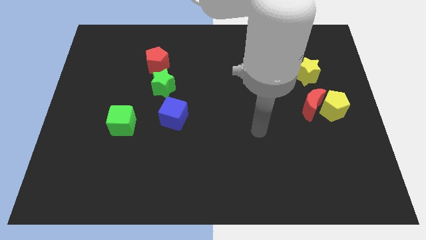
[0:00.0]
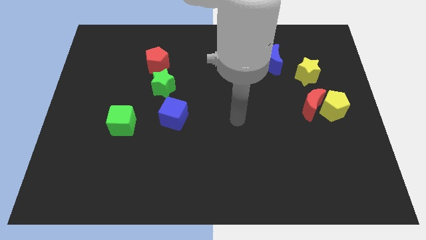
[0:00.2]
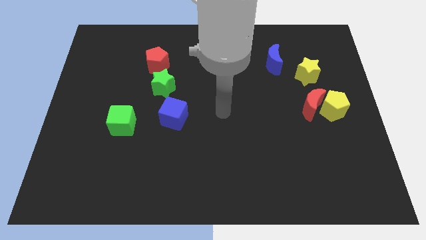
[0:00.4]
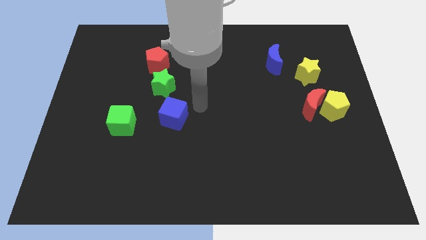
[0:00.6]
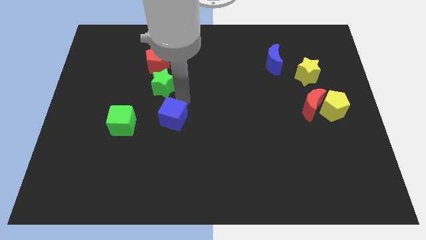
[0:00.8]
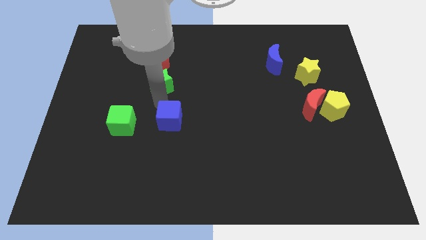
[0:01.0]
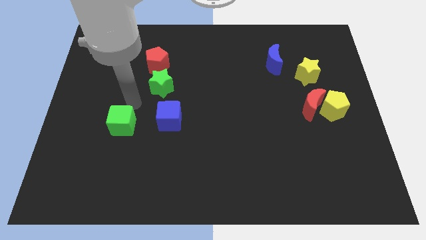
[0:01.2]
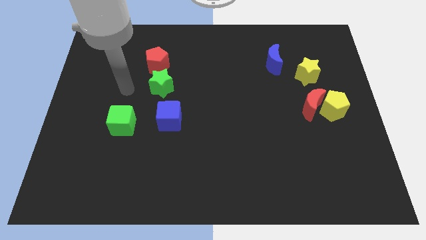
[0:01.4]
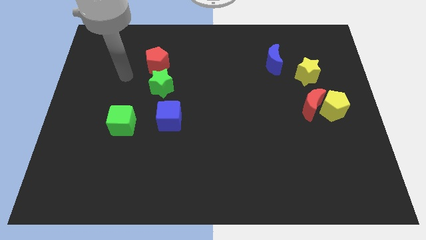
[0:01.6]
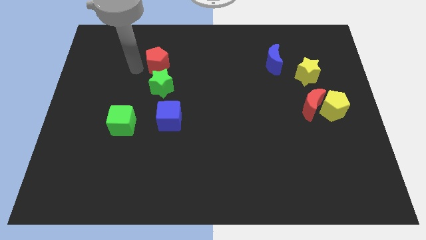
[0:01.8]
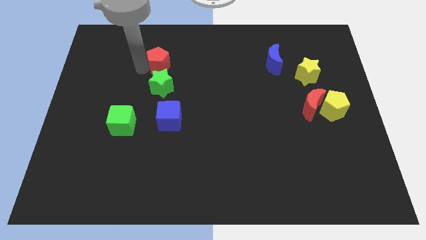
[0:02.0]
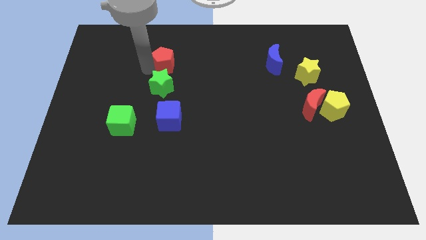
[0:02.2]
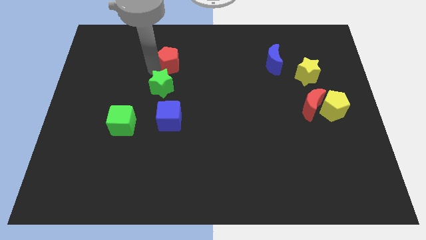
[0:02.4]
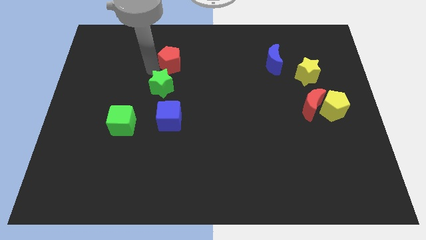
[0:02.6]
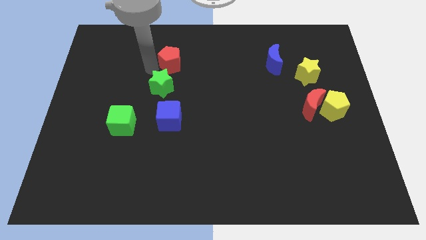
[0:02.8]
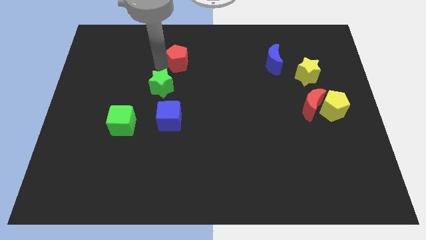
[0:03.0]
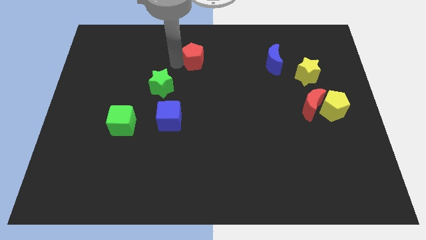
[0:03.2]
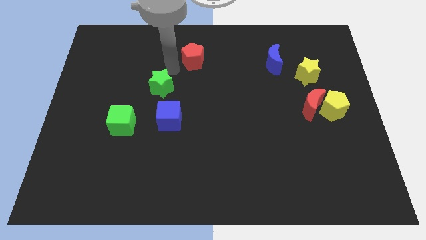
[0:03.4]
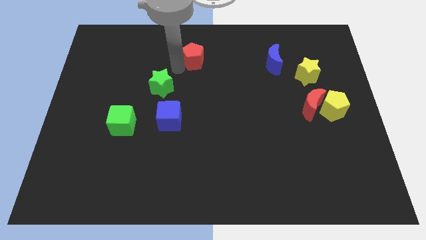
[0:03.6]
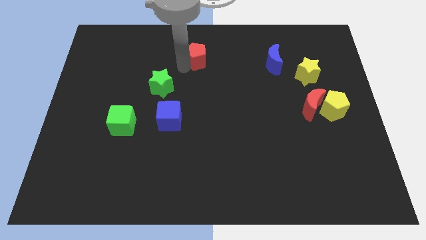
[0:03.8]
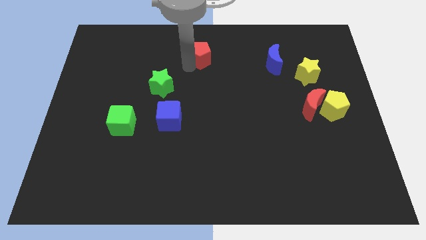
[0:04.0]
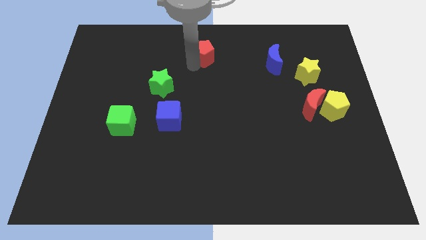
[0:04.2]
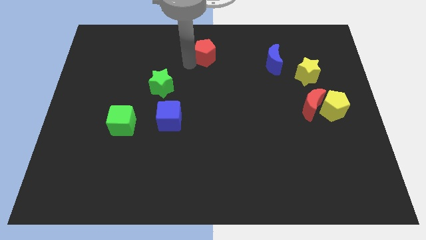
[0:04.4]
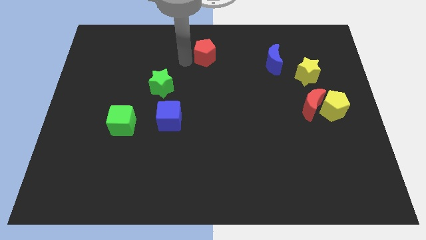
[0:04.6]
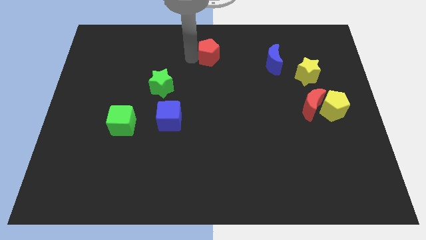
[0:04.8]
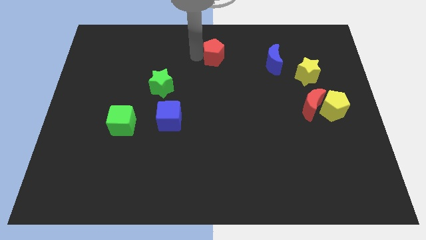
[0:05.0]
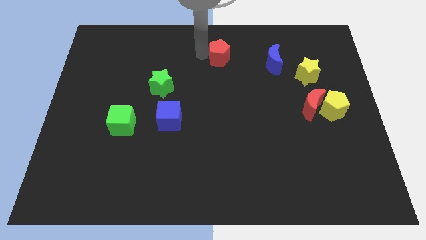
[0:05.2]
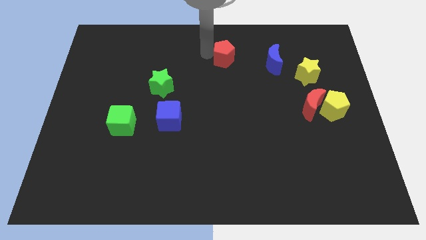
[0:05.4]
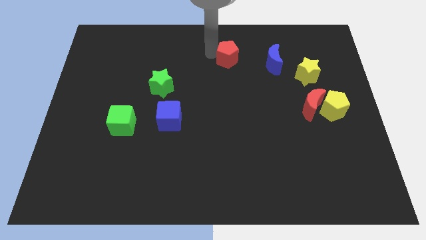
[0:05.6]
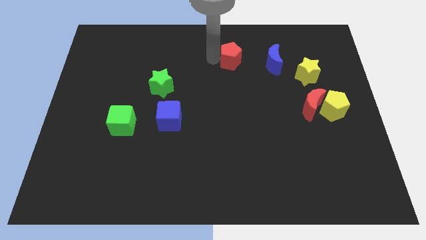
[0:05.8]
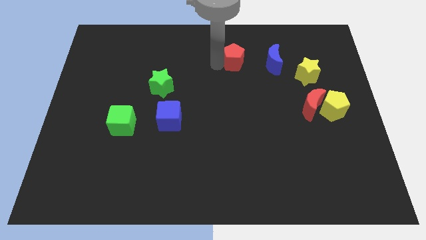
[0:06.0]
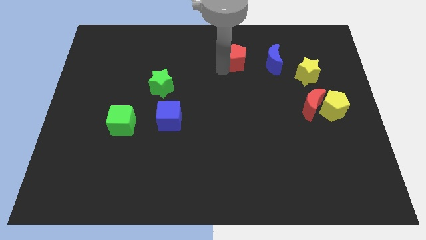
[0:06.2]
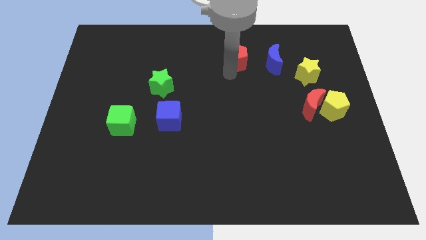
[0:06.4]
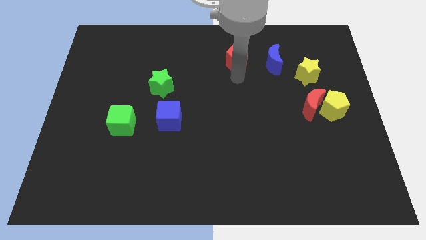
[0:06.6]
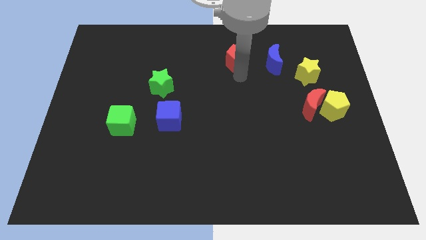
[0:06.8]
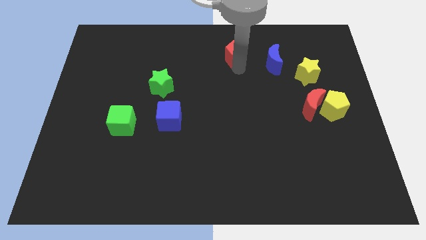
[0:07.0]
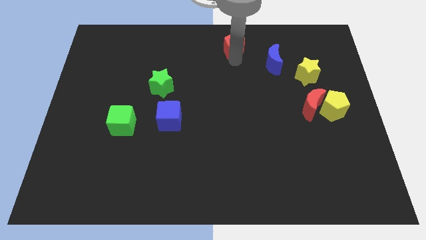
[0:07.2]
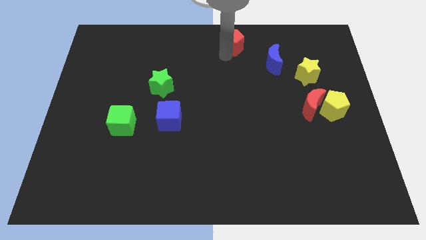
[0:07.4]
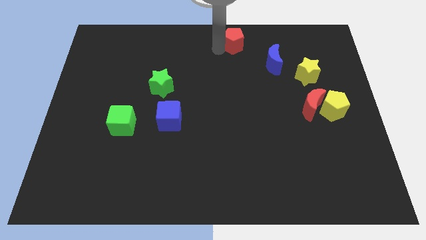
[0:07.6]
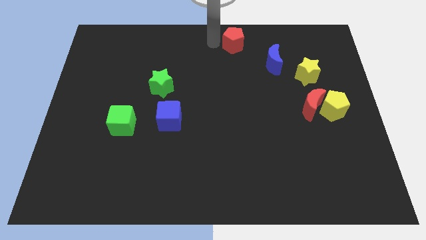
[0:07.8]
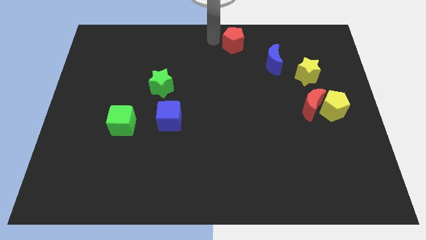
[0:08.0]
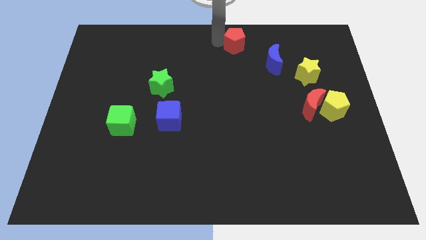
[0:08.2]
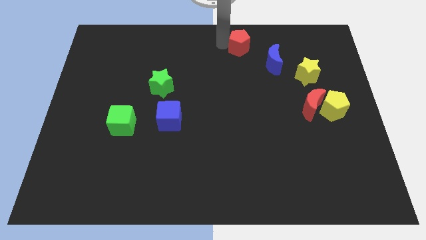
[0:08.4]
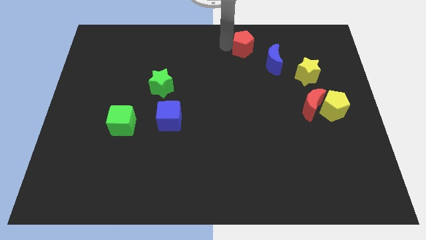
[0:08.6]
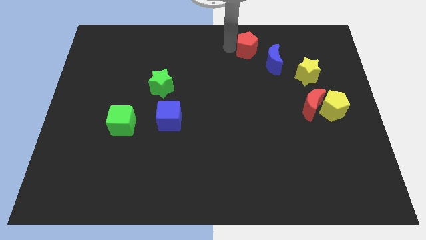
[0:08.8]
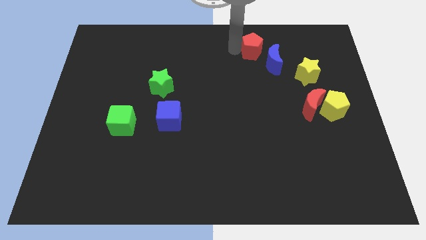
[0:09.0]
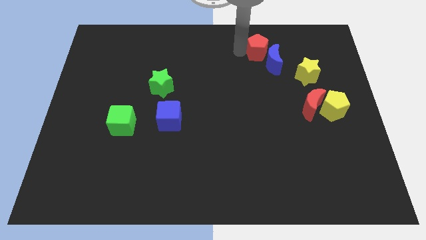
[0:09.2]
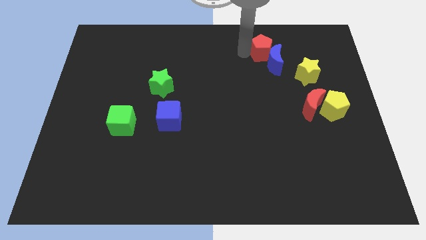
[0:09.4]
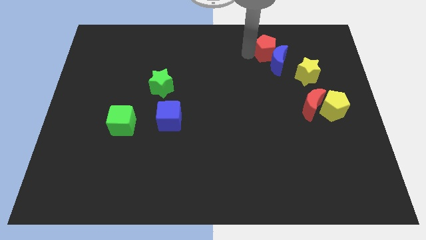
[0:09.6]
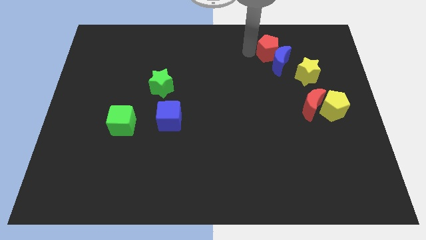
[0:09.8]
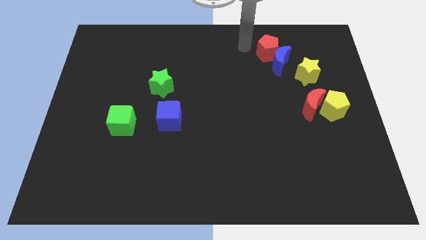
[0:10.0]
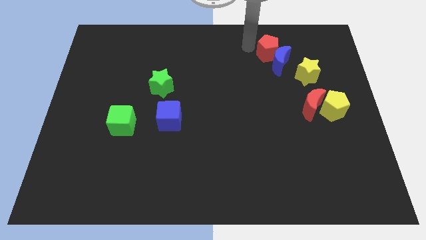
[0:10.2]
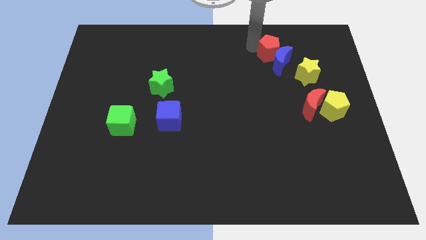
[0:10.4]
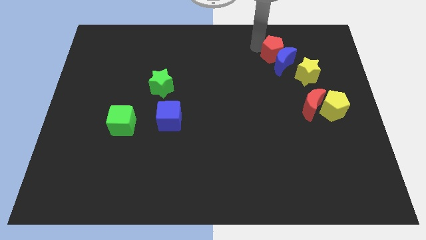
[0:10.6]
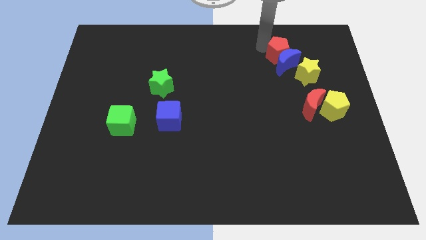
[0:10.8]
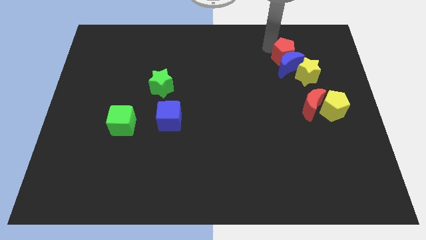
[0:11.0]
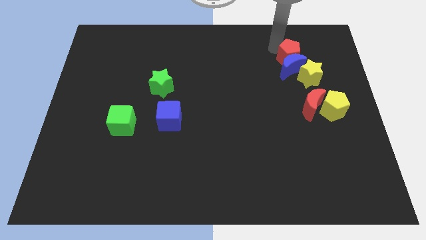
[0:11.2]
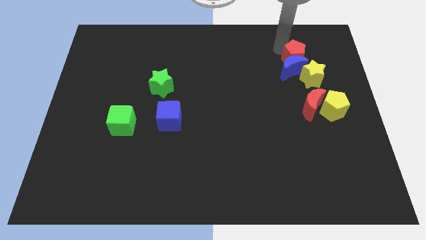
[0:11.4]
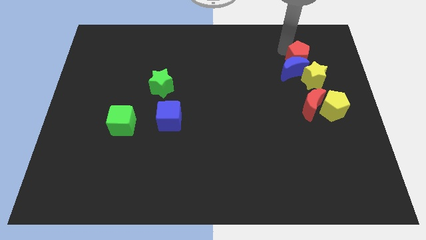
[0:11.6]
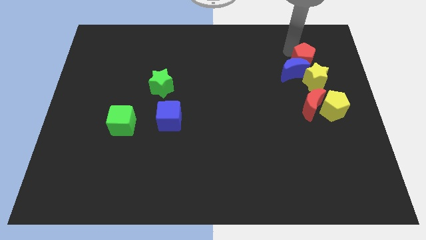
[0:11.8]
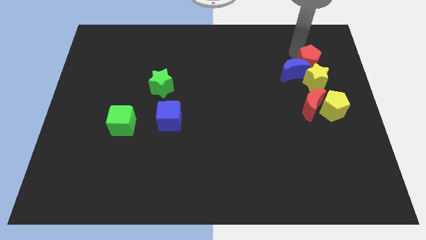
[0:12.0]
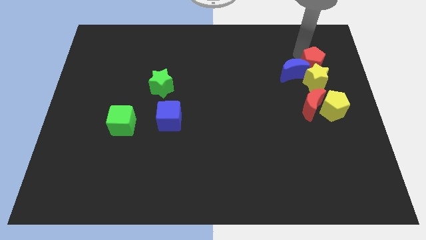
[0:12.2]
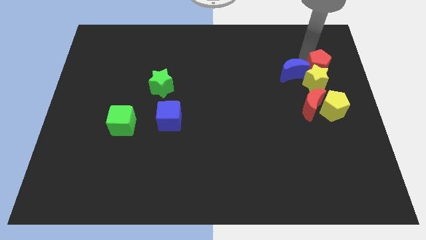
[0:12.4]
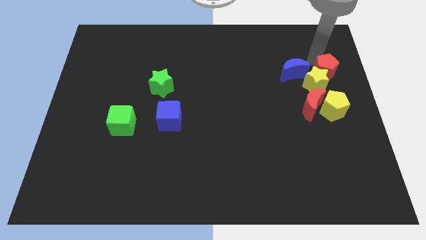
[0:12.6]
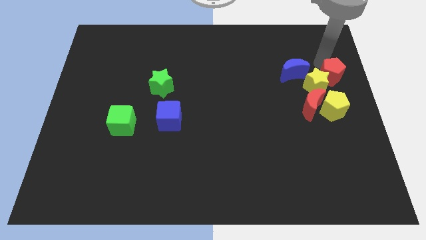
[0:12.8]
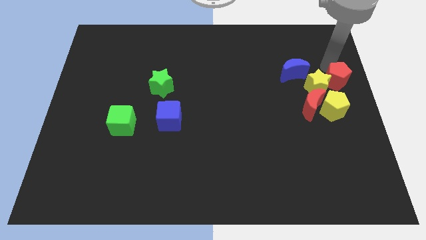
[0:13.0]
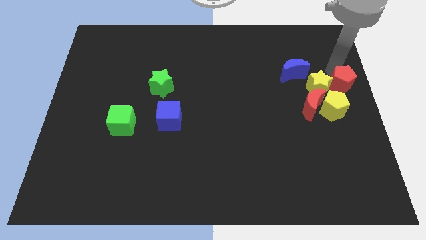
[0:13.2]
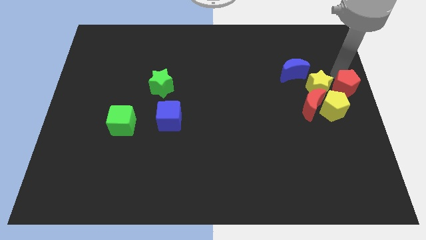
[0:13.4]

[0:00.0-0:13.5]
push the red pentagon to the bottom right of the yellow star

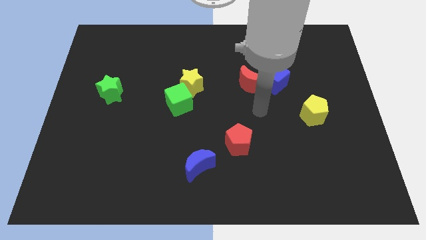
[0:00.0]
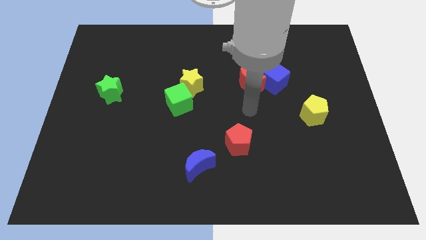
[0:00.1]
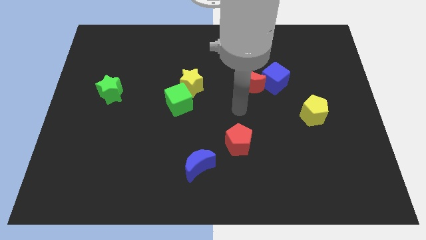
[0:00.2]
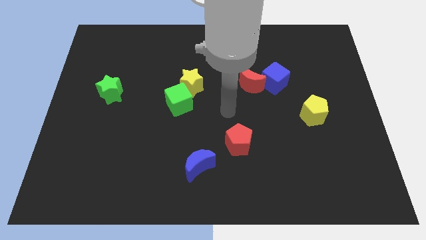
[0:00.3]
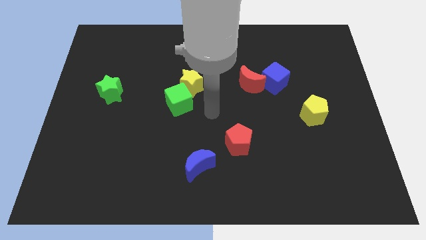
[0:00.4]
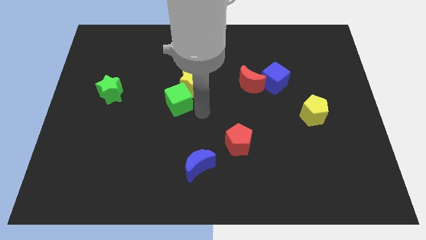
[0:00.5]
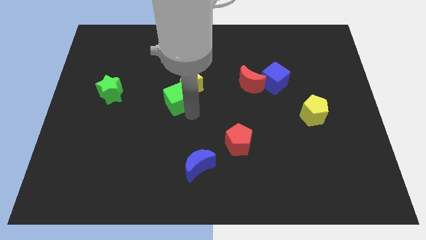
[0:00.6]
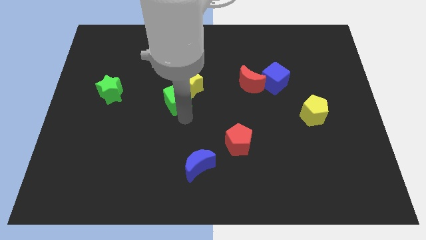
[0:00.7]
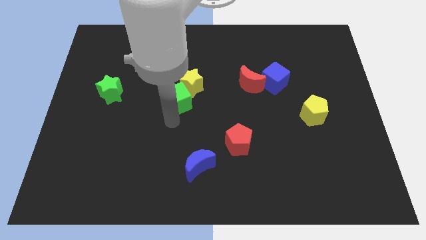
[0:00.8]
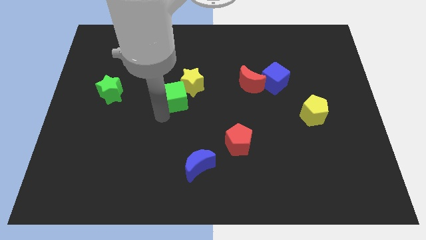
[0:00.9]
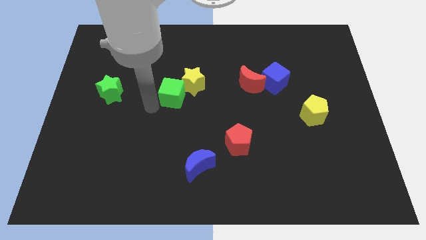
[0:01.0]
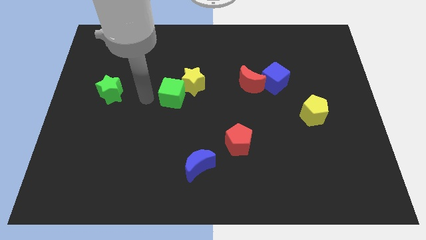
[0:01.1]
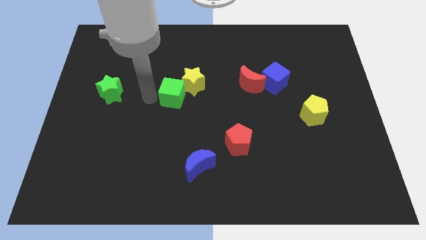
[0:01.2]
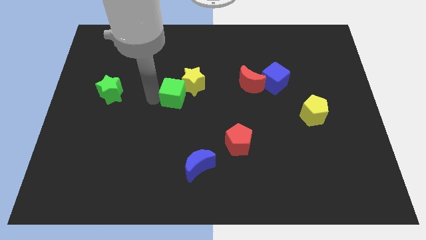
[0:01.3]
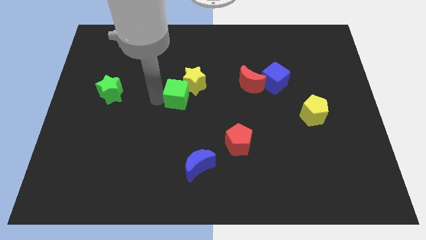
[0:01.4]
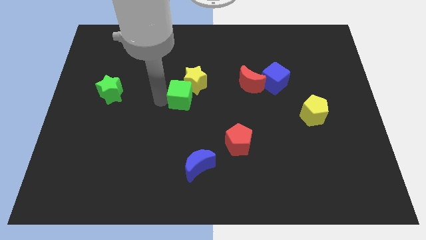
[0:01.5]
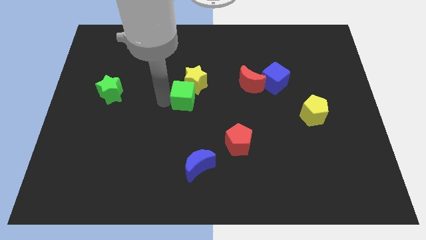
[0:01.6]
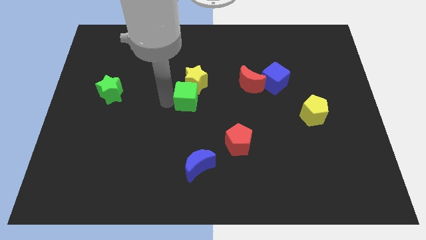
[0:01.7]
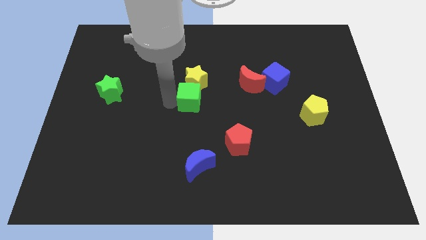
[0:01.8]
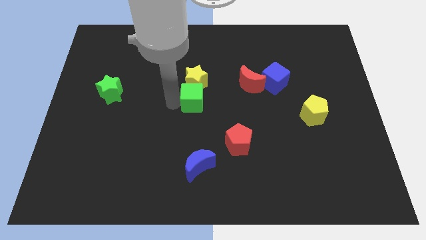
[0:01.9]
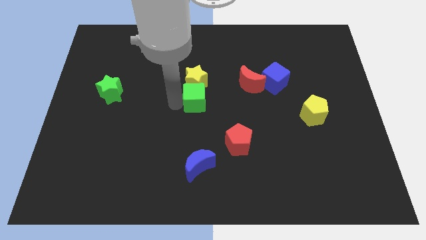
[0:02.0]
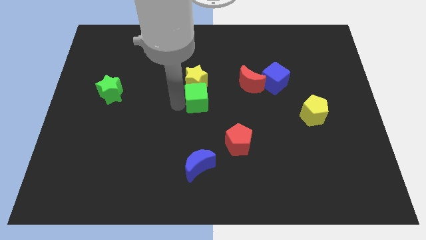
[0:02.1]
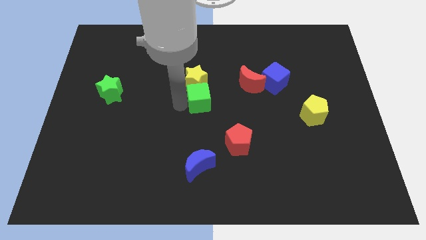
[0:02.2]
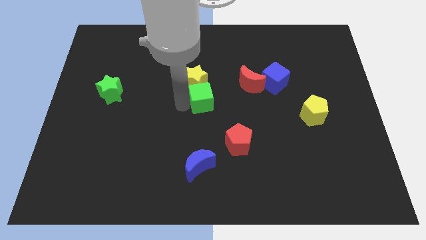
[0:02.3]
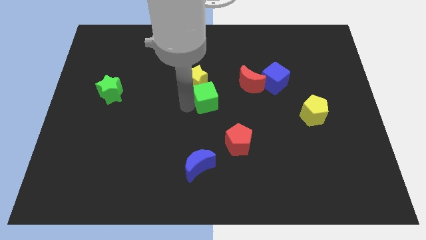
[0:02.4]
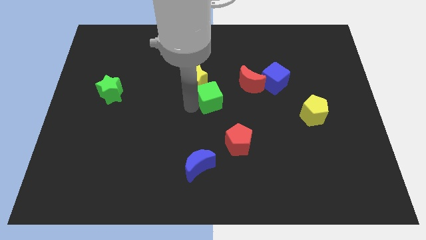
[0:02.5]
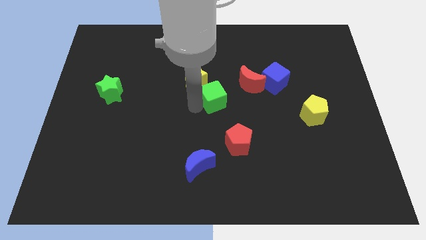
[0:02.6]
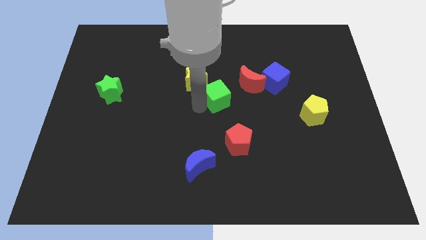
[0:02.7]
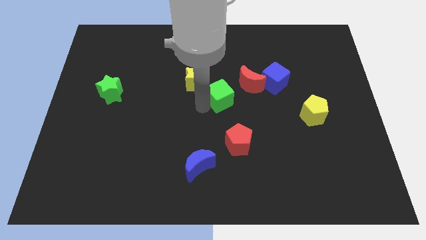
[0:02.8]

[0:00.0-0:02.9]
move the green cube to the right of the yellow star
